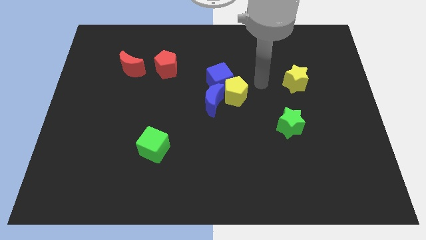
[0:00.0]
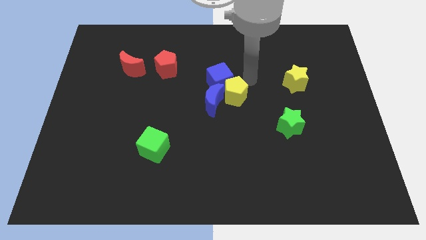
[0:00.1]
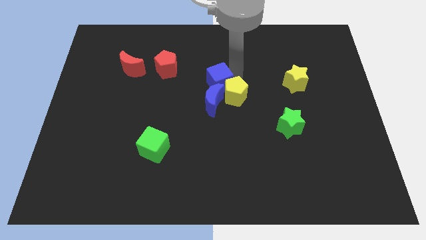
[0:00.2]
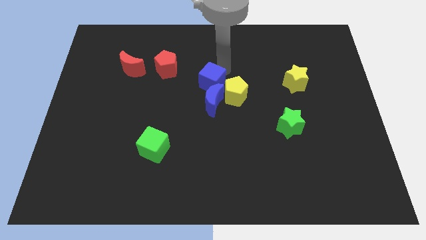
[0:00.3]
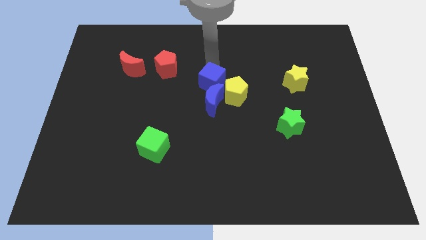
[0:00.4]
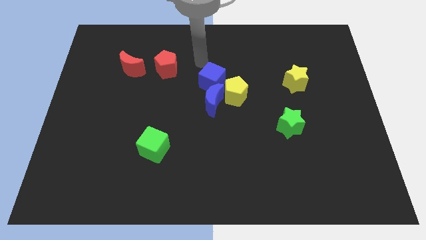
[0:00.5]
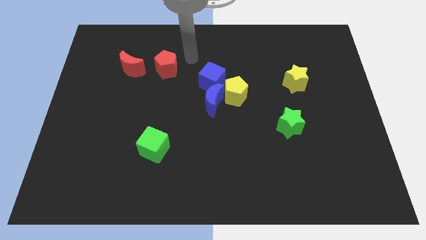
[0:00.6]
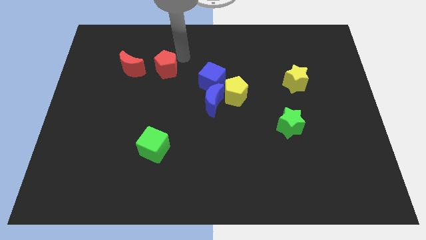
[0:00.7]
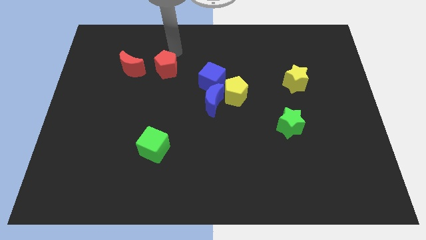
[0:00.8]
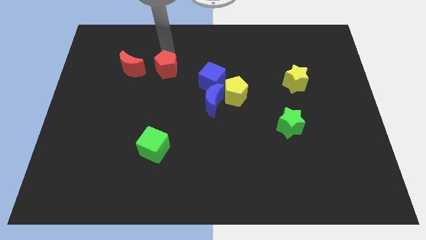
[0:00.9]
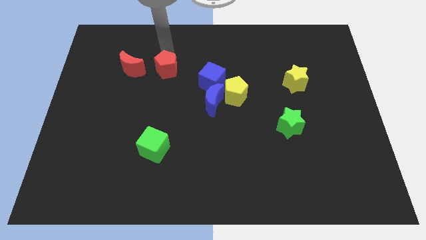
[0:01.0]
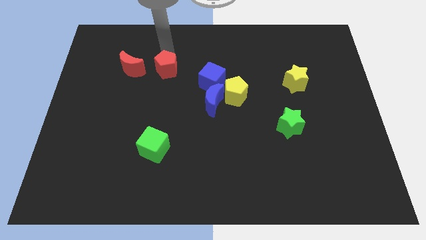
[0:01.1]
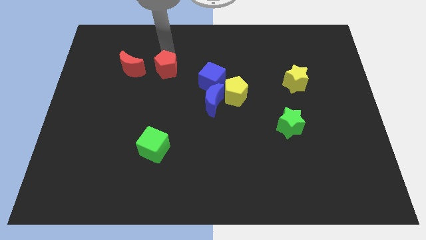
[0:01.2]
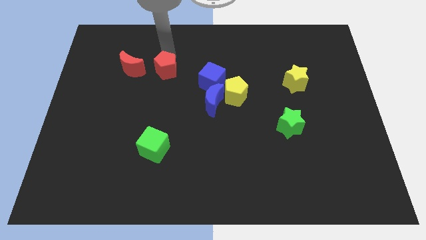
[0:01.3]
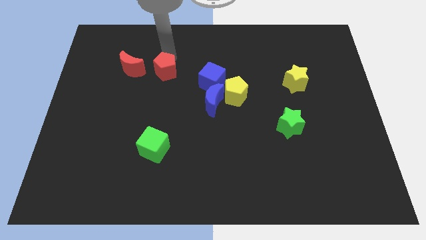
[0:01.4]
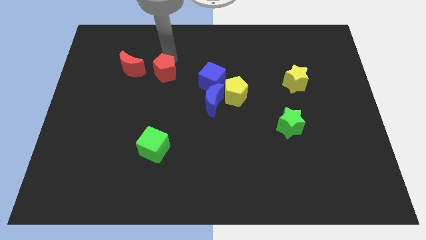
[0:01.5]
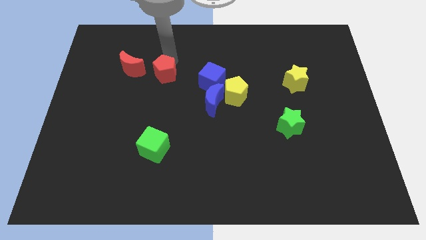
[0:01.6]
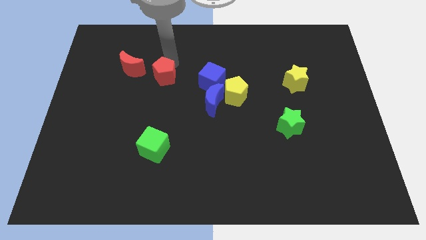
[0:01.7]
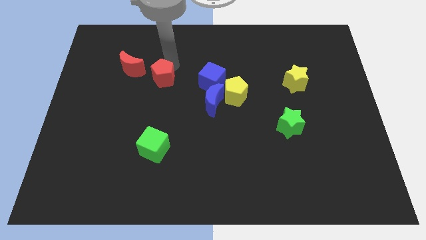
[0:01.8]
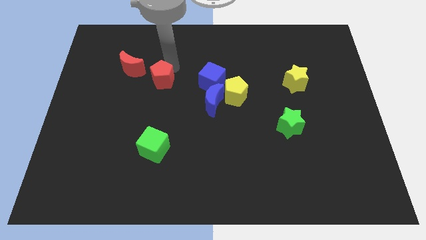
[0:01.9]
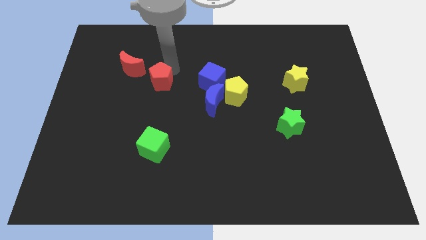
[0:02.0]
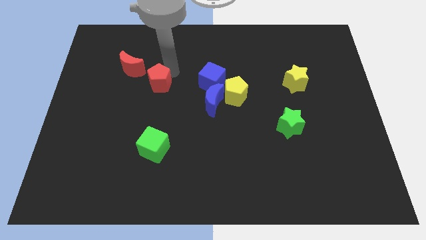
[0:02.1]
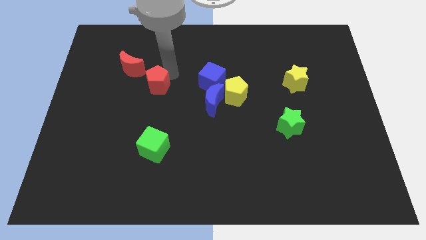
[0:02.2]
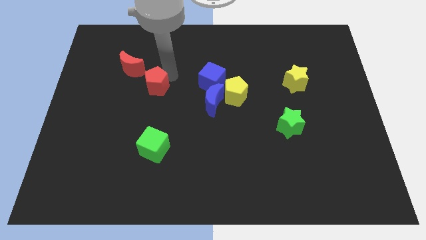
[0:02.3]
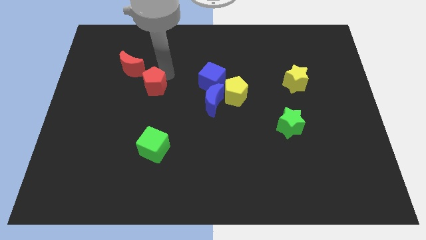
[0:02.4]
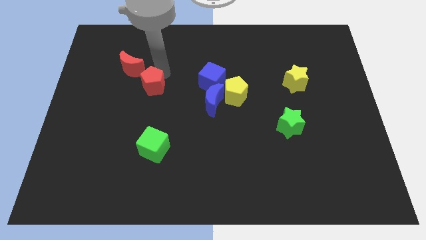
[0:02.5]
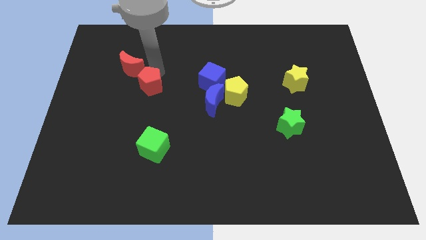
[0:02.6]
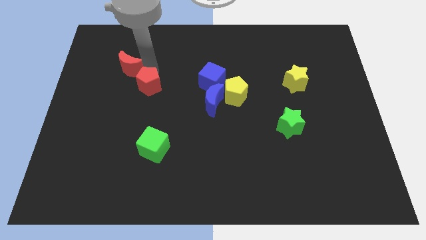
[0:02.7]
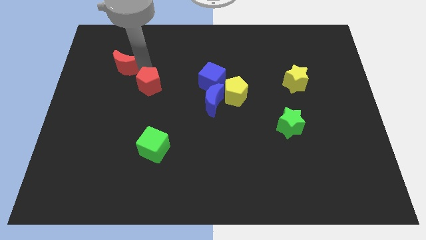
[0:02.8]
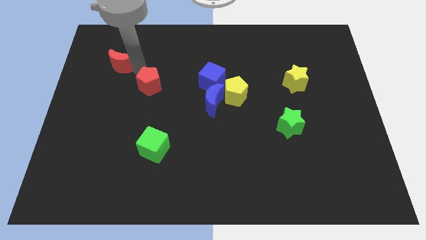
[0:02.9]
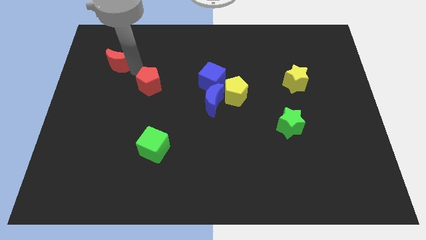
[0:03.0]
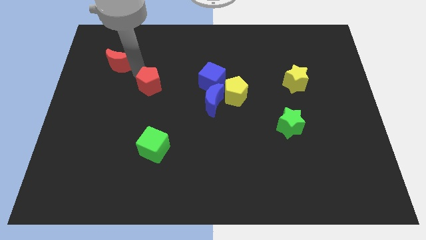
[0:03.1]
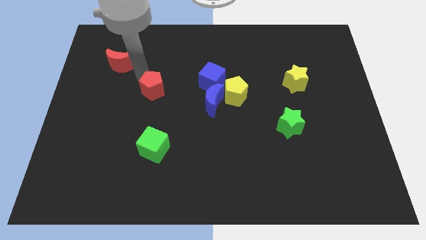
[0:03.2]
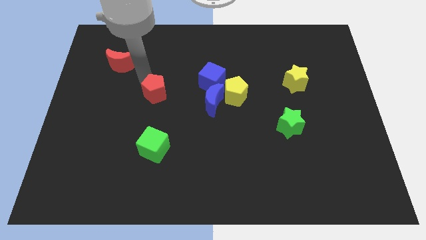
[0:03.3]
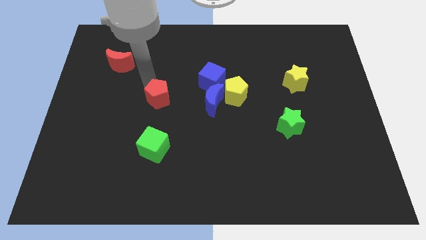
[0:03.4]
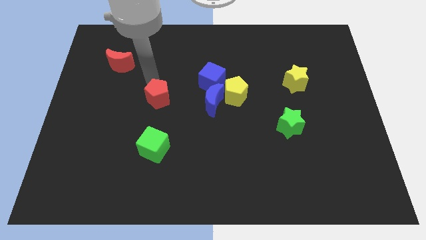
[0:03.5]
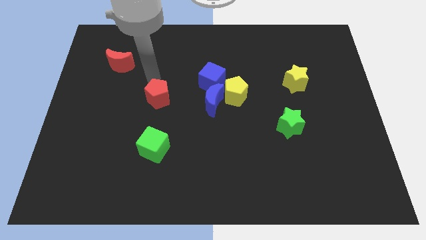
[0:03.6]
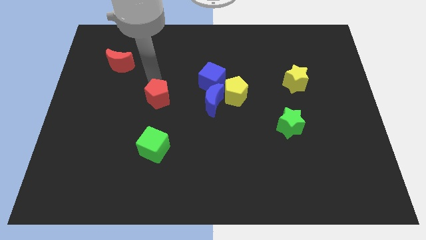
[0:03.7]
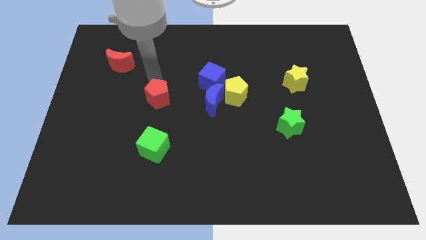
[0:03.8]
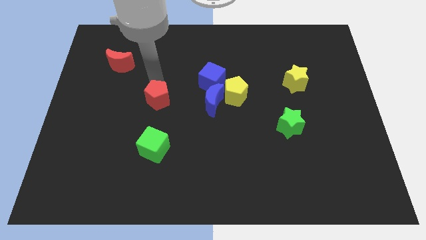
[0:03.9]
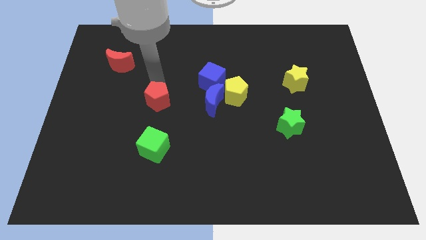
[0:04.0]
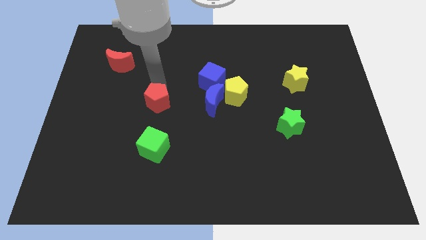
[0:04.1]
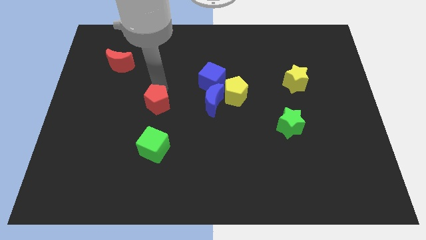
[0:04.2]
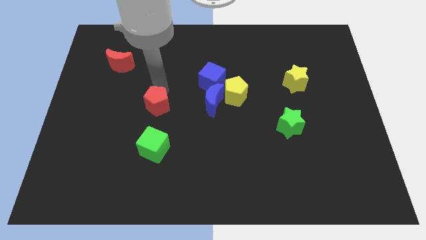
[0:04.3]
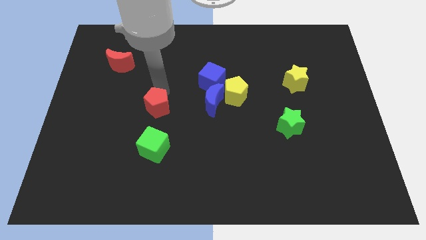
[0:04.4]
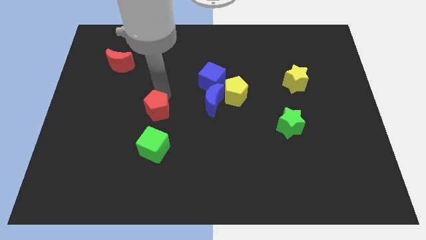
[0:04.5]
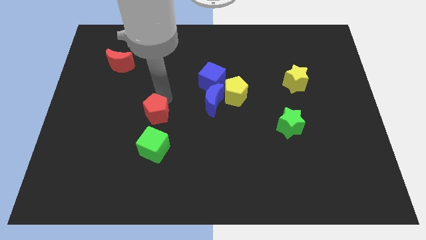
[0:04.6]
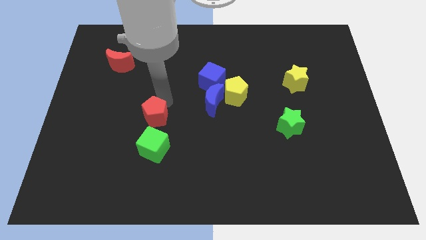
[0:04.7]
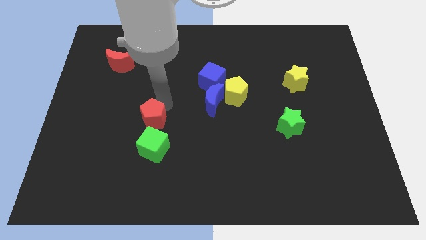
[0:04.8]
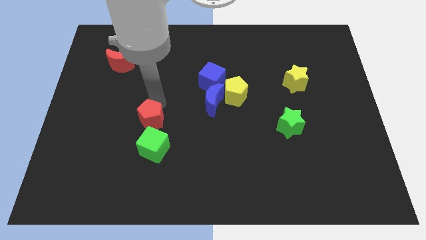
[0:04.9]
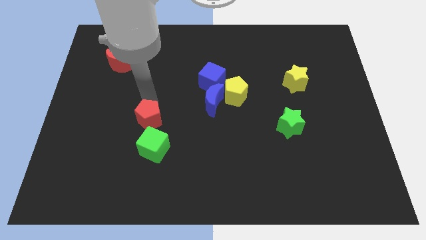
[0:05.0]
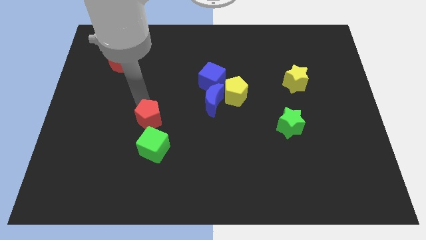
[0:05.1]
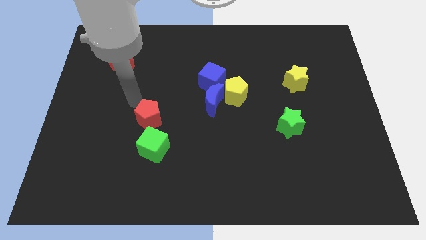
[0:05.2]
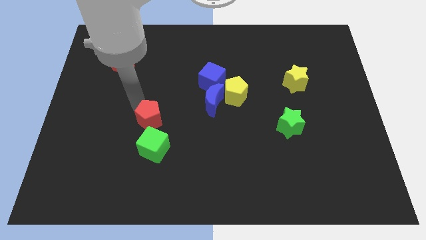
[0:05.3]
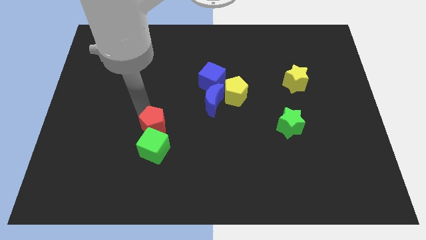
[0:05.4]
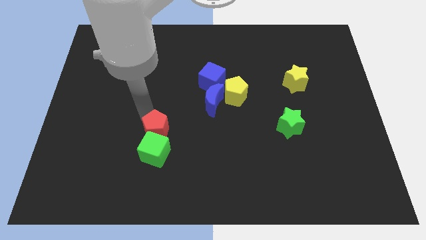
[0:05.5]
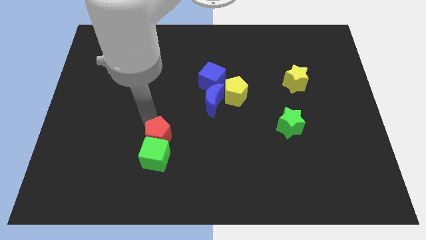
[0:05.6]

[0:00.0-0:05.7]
push the red pentagon downwards

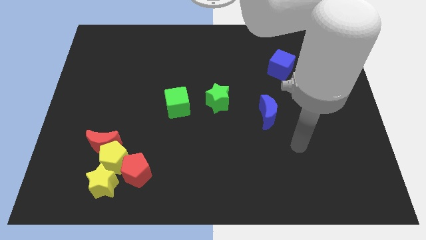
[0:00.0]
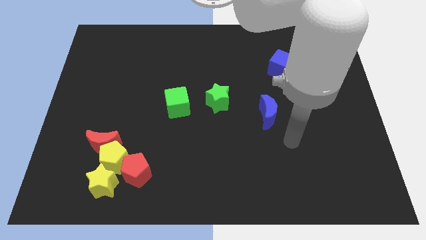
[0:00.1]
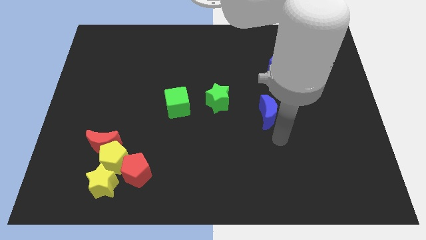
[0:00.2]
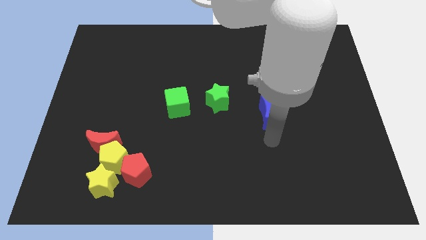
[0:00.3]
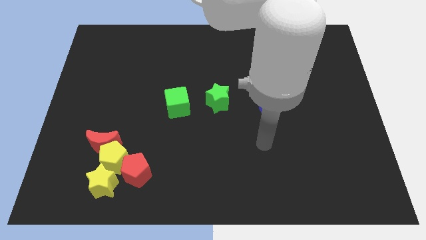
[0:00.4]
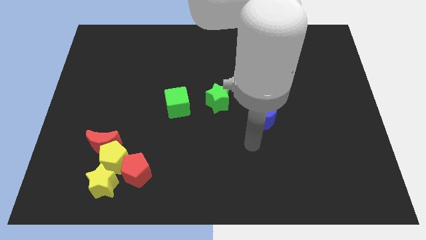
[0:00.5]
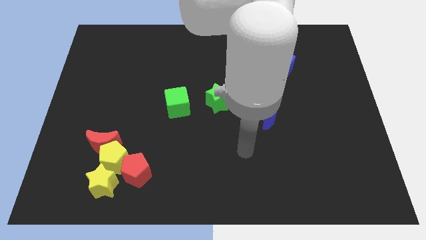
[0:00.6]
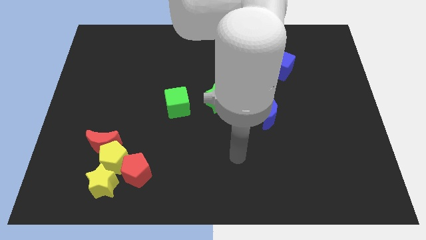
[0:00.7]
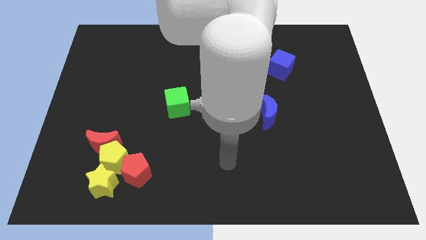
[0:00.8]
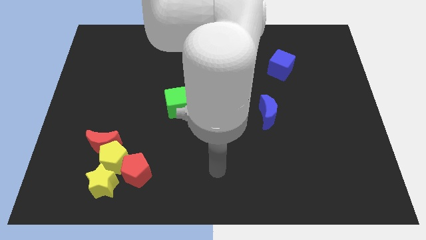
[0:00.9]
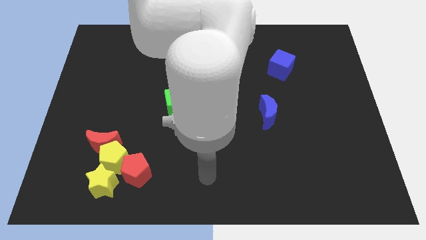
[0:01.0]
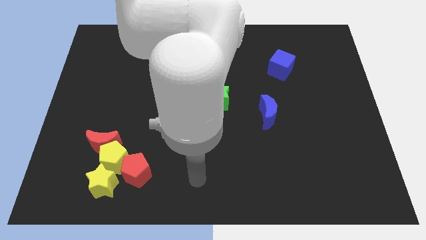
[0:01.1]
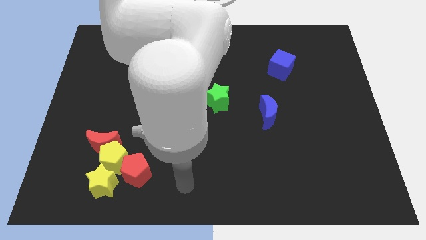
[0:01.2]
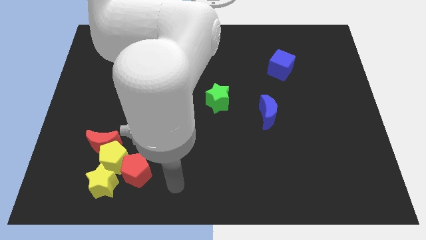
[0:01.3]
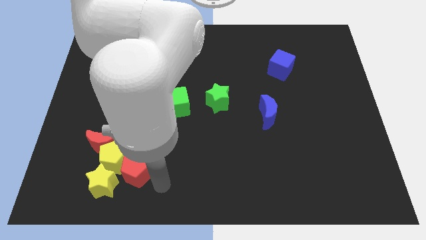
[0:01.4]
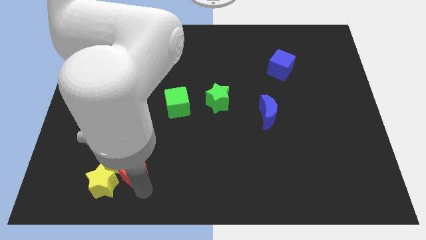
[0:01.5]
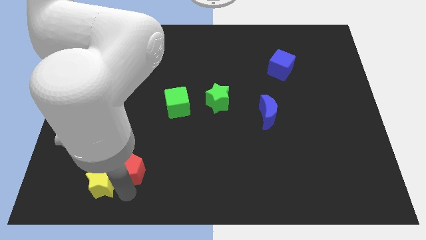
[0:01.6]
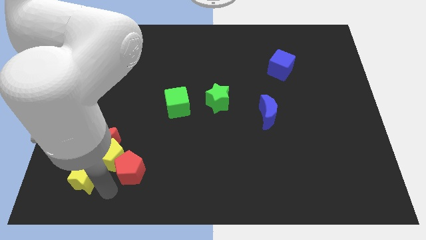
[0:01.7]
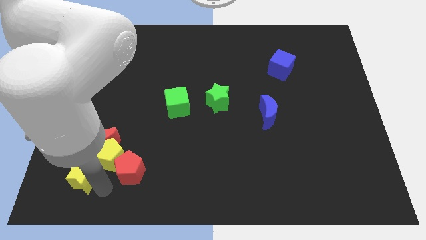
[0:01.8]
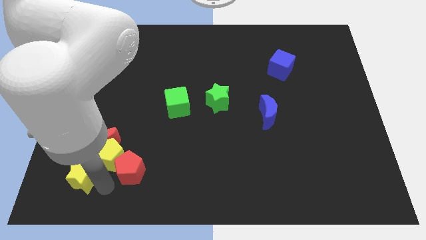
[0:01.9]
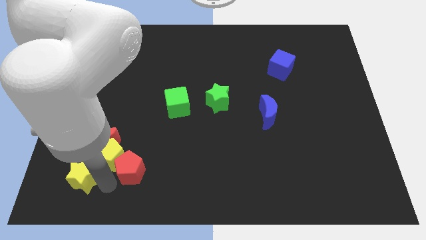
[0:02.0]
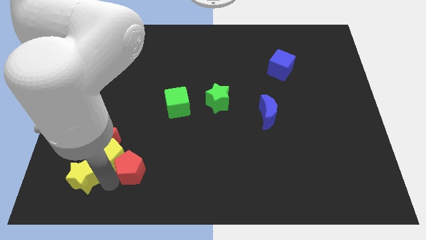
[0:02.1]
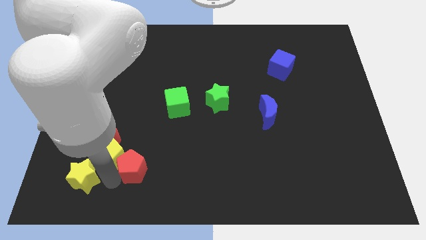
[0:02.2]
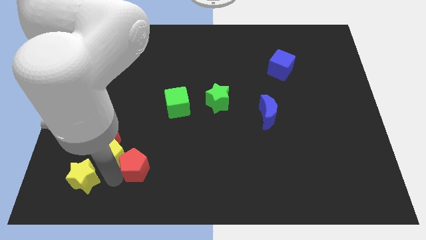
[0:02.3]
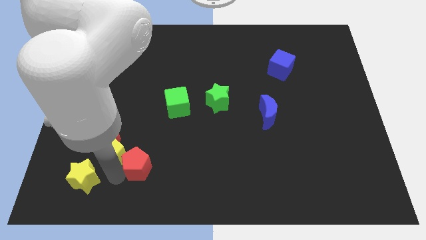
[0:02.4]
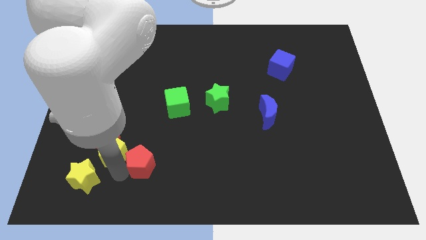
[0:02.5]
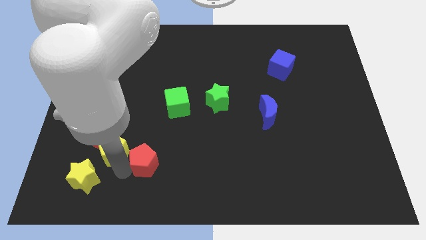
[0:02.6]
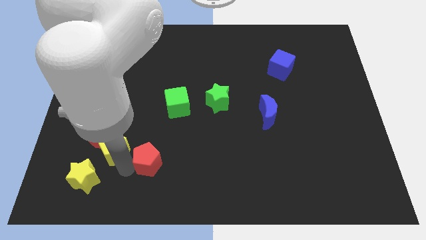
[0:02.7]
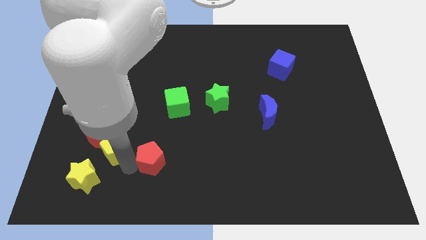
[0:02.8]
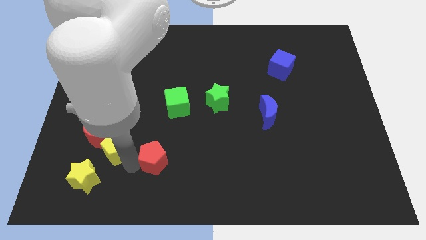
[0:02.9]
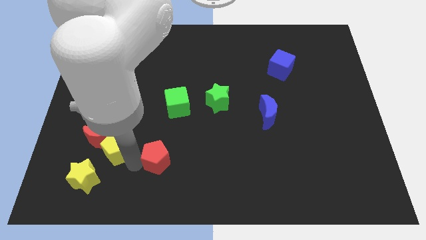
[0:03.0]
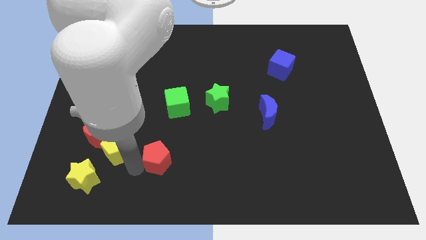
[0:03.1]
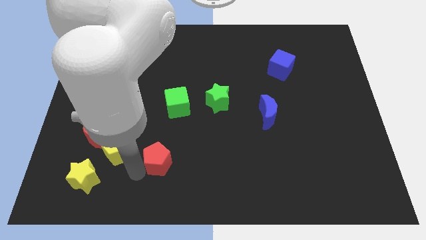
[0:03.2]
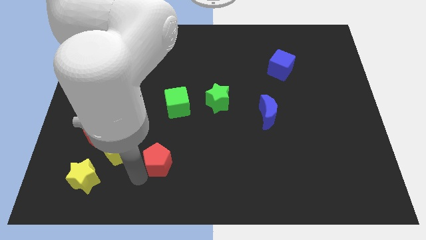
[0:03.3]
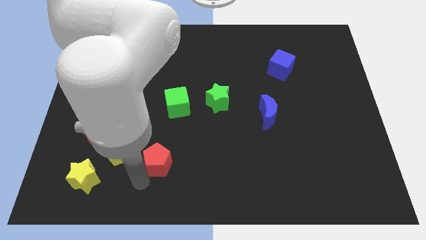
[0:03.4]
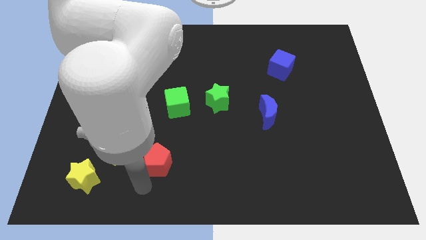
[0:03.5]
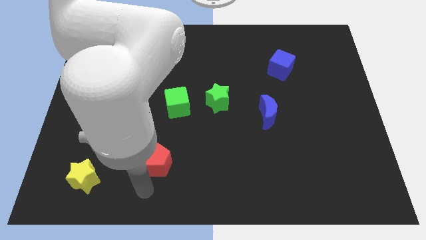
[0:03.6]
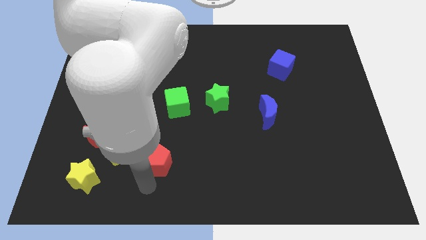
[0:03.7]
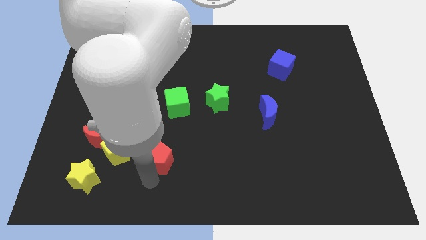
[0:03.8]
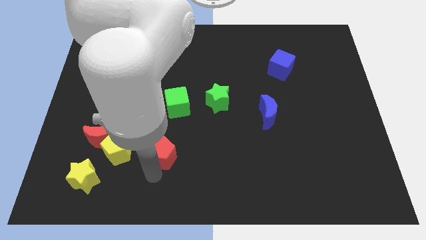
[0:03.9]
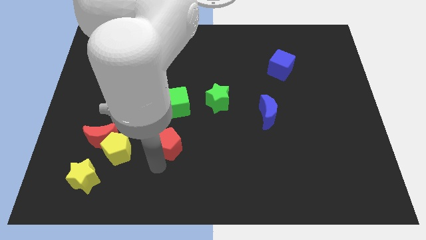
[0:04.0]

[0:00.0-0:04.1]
push the red pentagon up and then right somewhat
